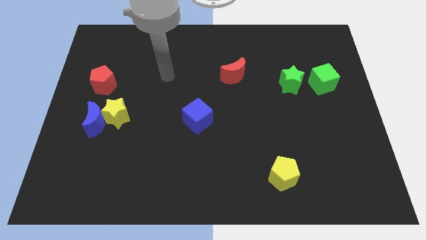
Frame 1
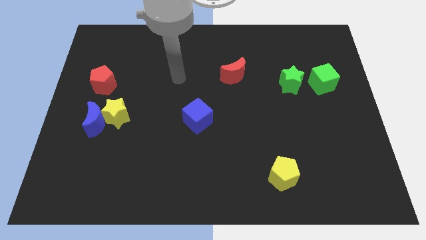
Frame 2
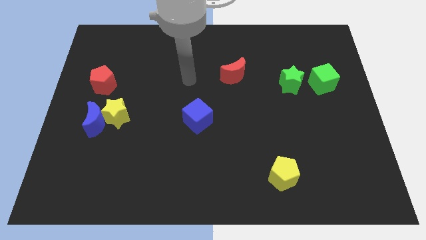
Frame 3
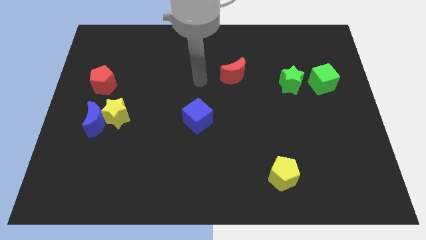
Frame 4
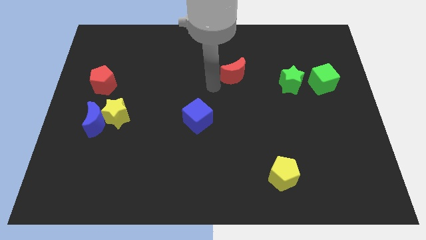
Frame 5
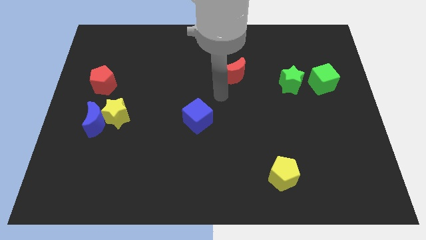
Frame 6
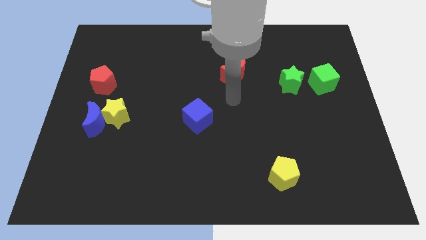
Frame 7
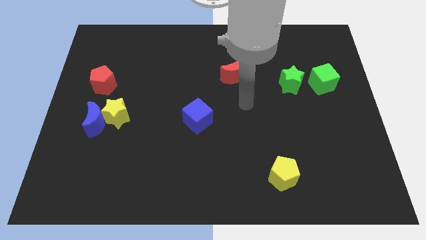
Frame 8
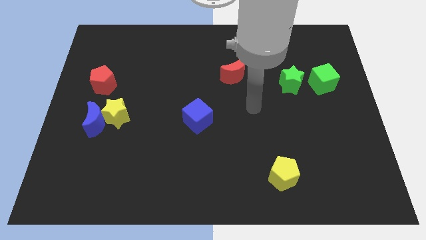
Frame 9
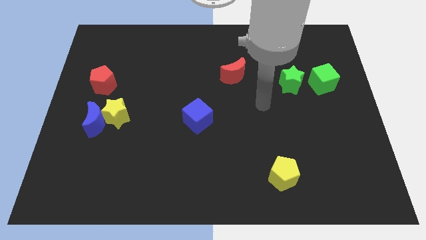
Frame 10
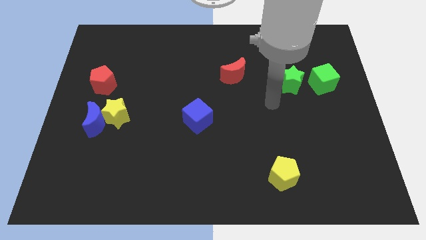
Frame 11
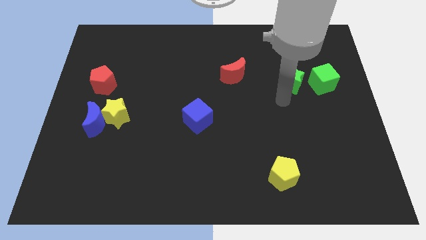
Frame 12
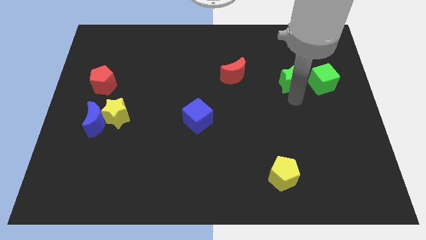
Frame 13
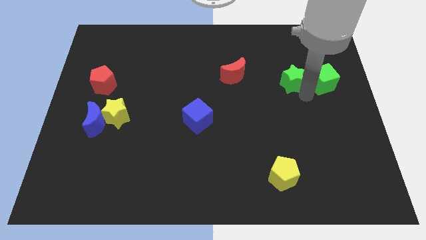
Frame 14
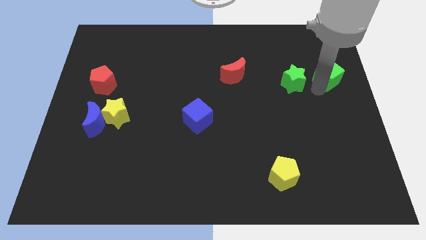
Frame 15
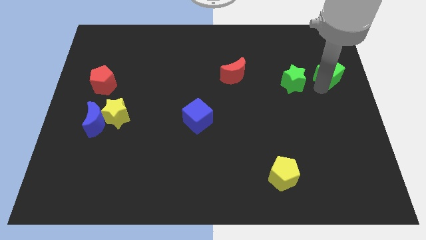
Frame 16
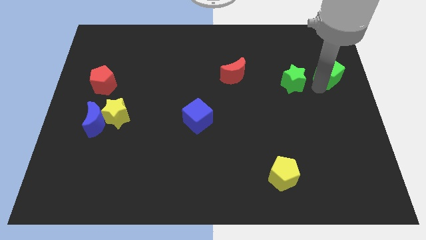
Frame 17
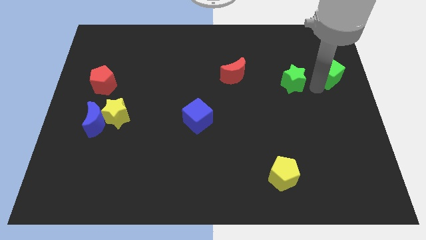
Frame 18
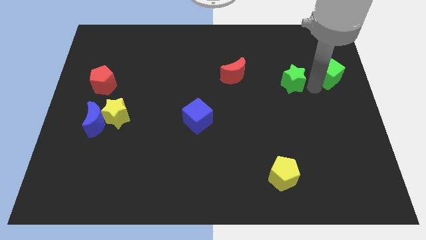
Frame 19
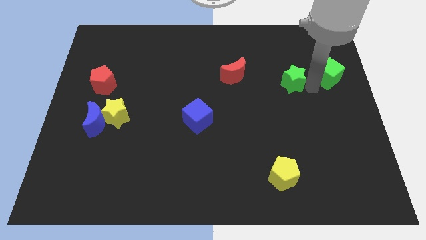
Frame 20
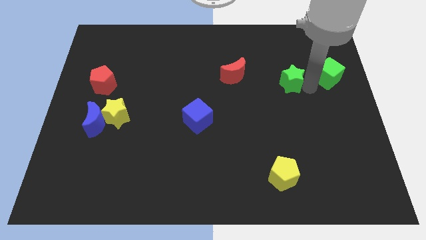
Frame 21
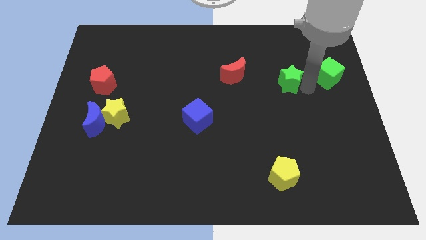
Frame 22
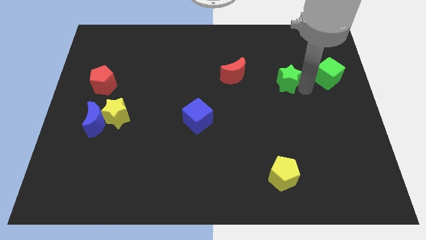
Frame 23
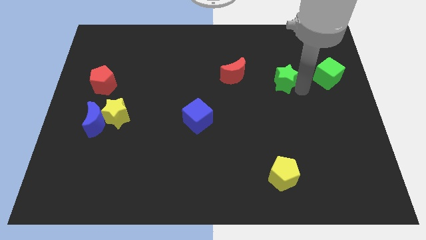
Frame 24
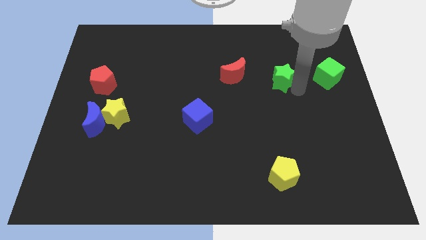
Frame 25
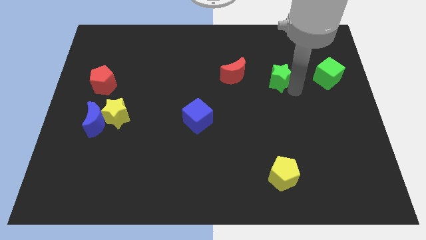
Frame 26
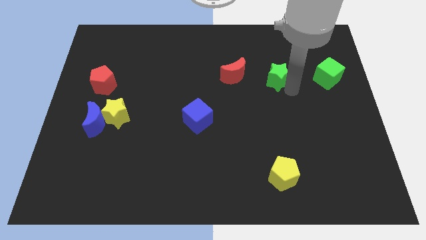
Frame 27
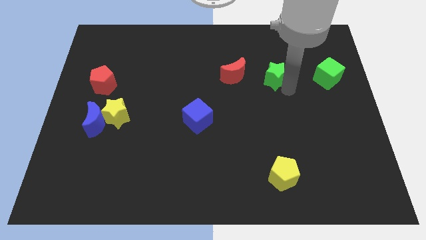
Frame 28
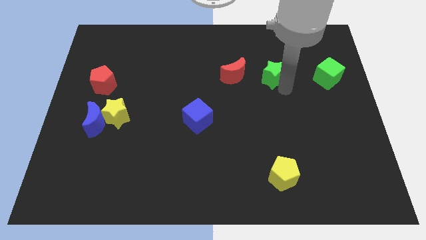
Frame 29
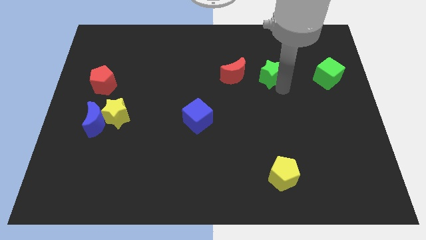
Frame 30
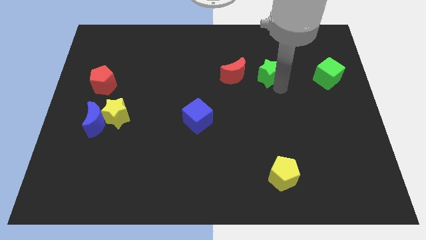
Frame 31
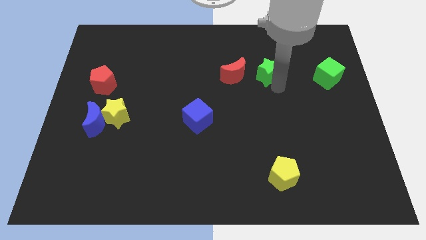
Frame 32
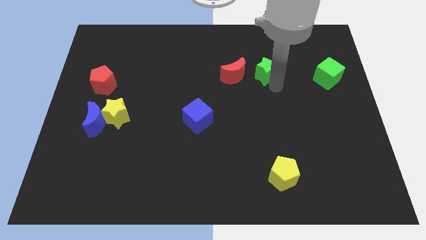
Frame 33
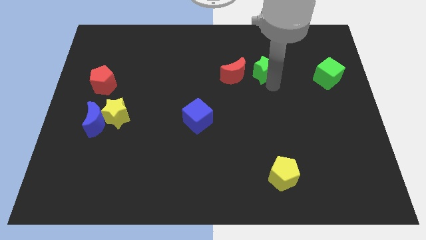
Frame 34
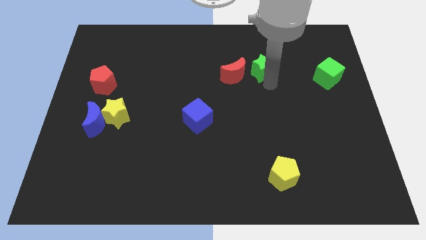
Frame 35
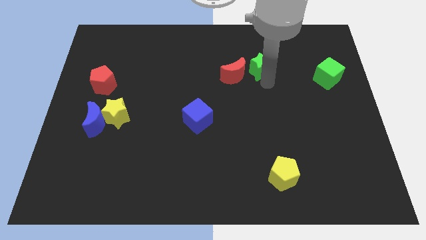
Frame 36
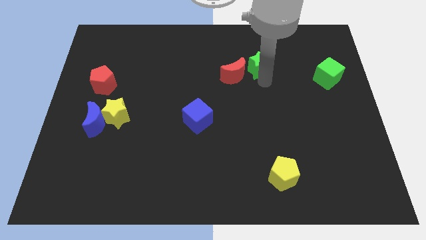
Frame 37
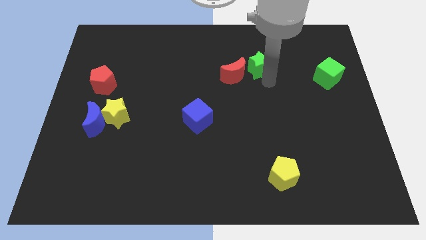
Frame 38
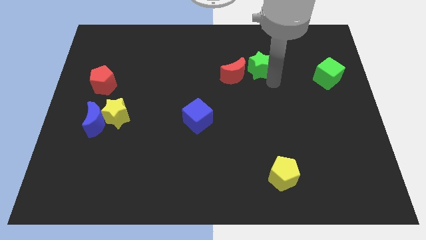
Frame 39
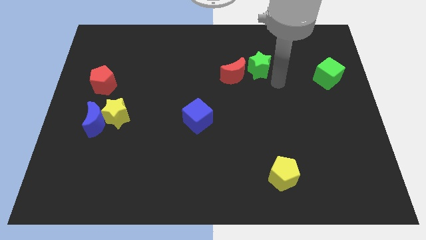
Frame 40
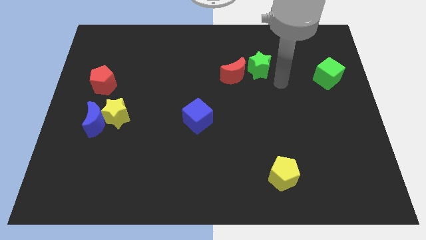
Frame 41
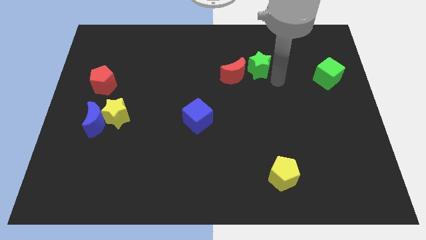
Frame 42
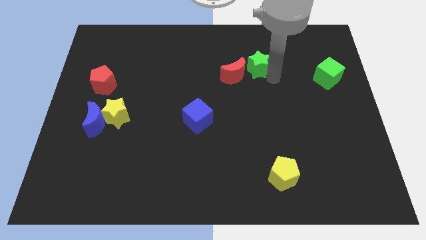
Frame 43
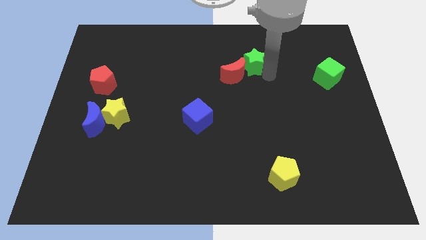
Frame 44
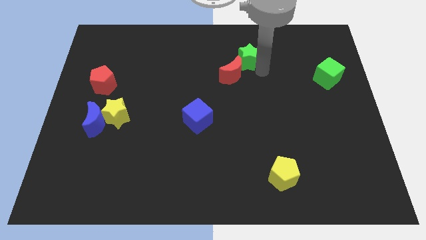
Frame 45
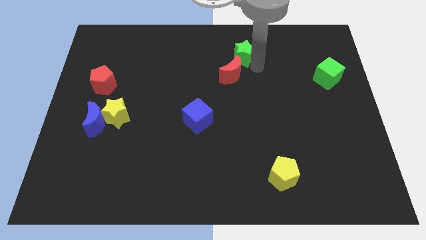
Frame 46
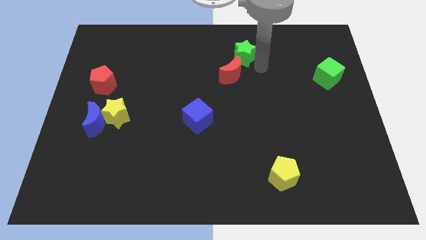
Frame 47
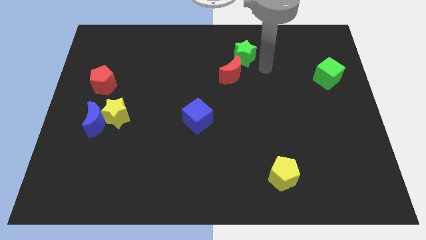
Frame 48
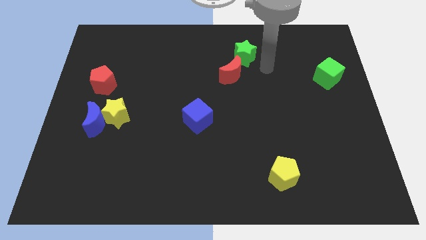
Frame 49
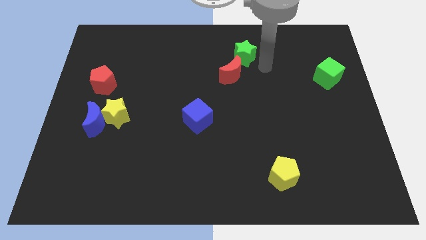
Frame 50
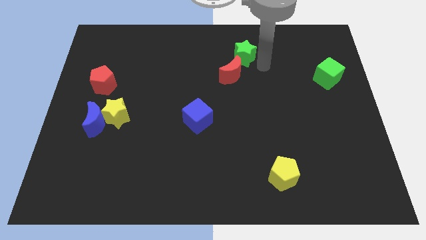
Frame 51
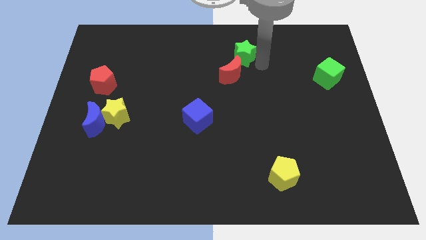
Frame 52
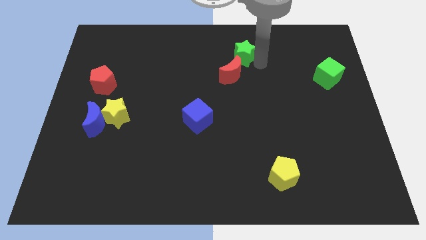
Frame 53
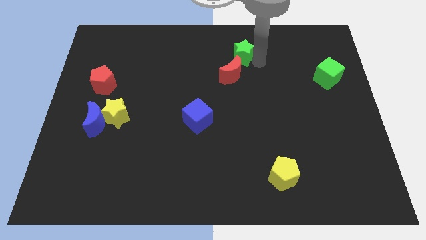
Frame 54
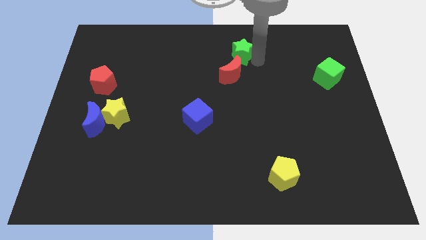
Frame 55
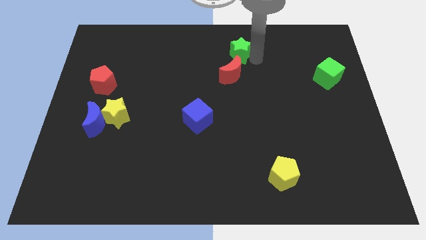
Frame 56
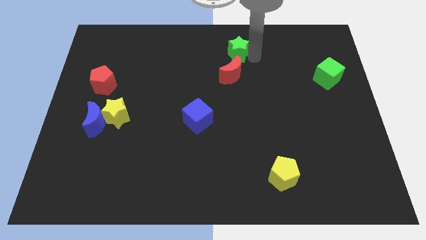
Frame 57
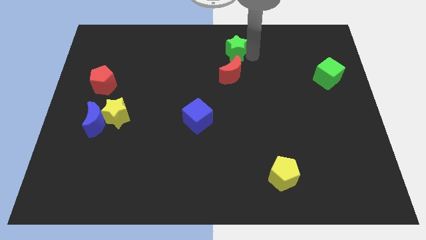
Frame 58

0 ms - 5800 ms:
put the green star to the top

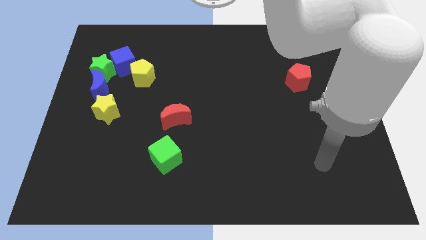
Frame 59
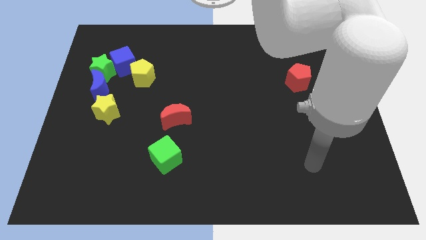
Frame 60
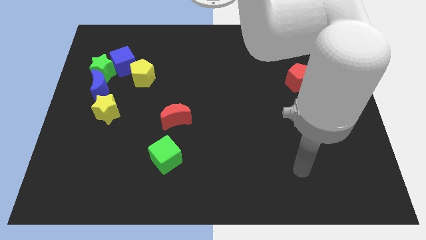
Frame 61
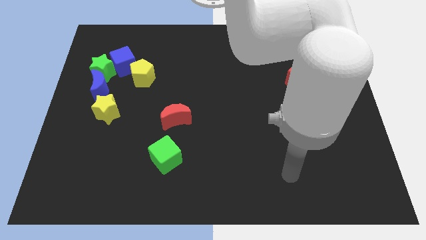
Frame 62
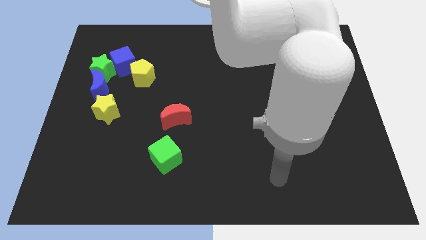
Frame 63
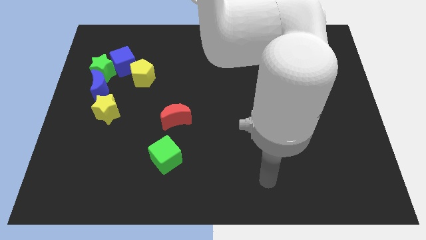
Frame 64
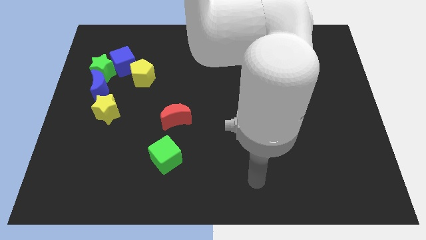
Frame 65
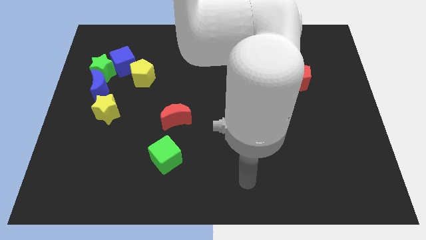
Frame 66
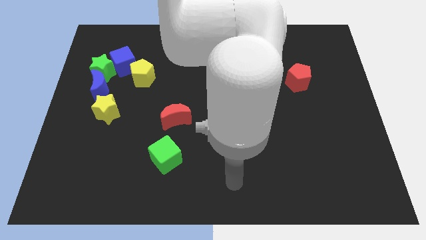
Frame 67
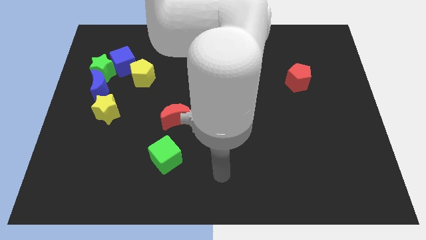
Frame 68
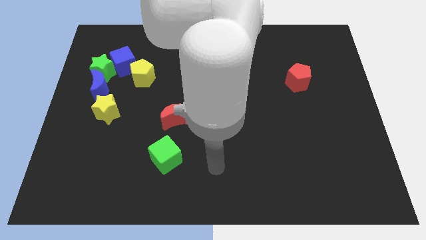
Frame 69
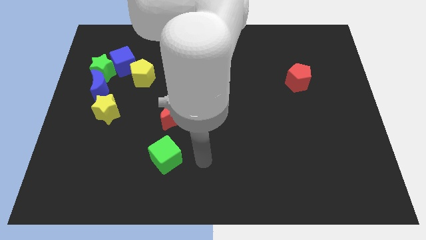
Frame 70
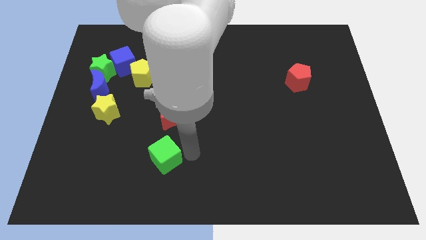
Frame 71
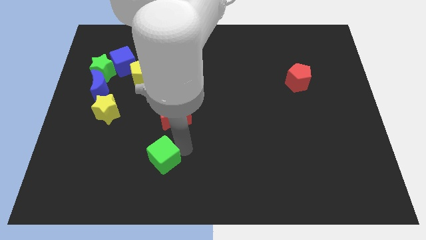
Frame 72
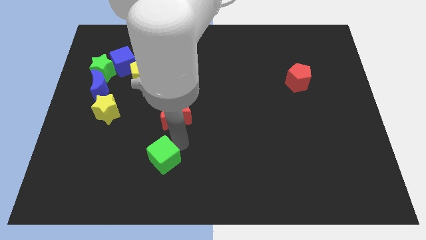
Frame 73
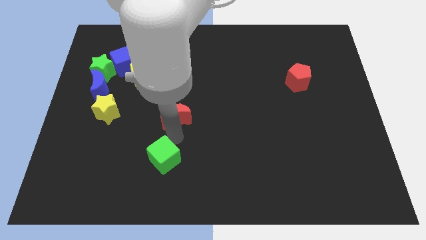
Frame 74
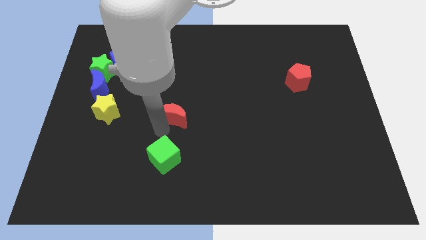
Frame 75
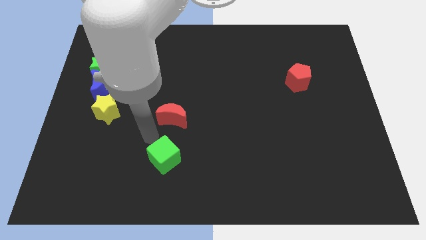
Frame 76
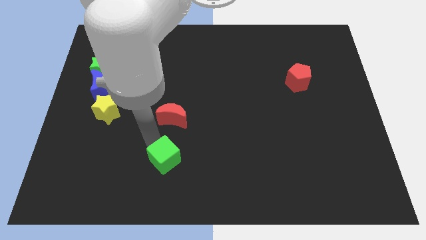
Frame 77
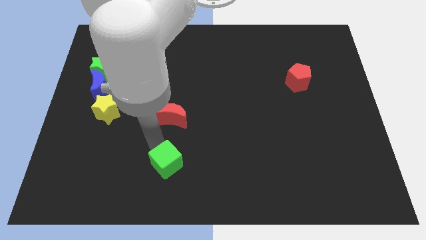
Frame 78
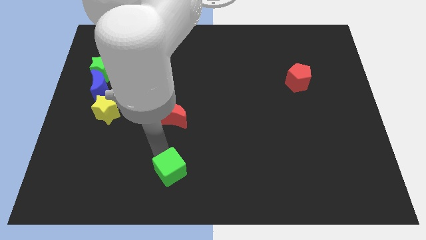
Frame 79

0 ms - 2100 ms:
push the green cube to the bottom
